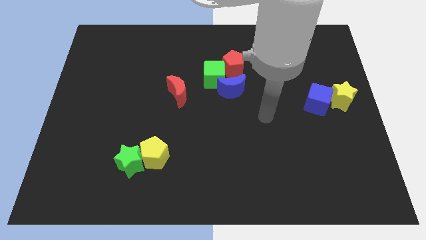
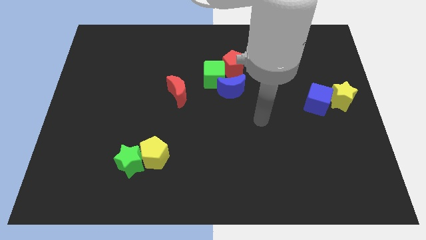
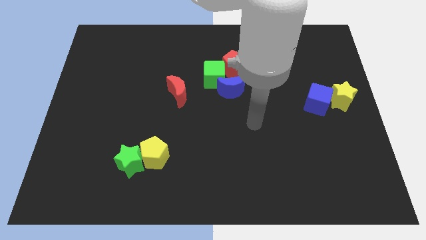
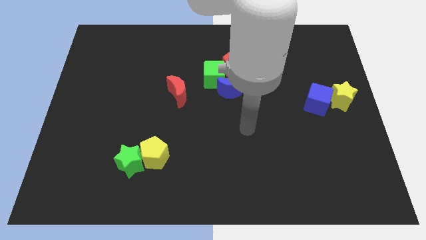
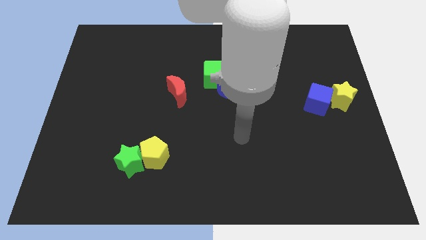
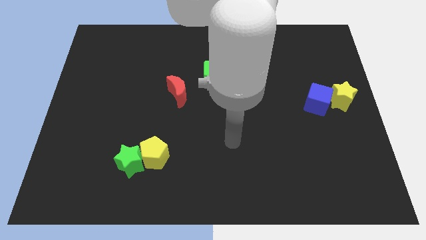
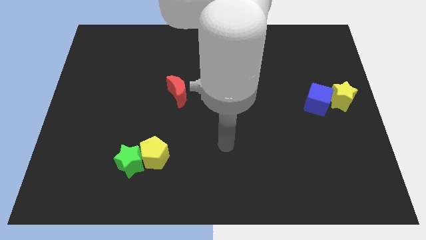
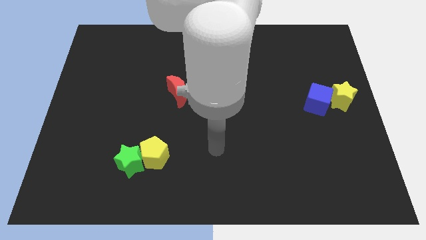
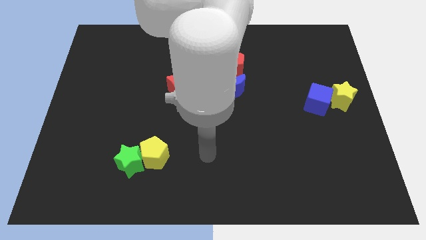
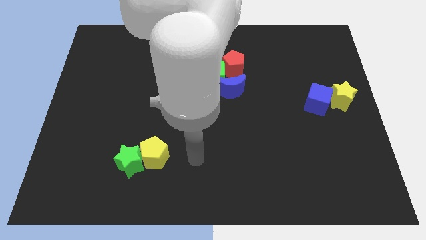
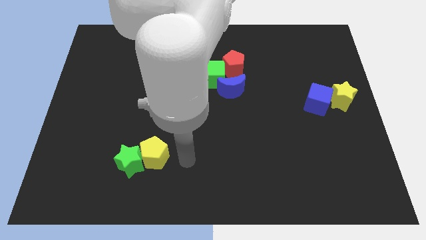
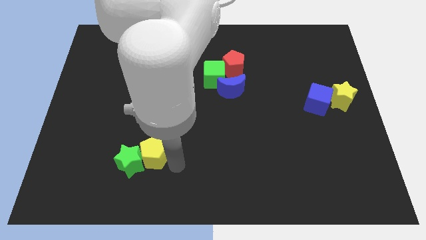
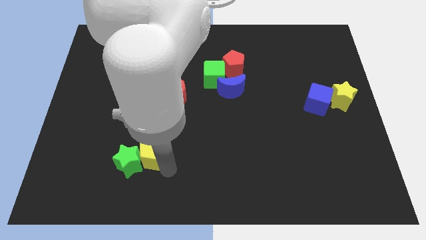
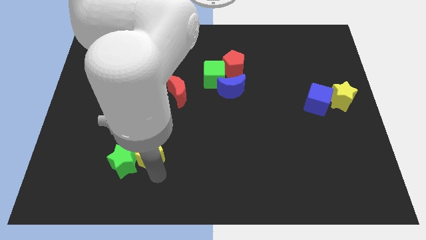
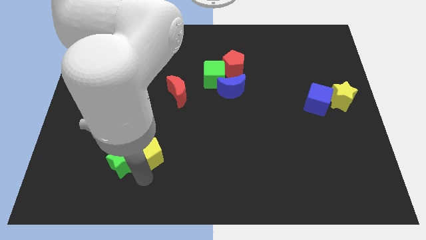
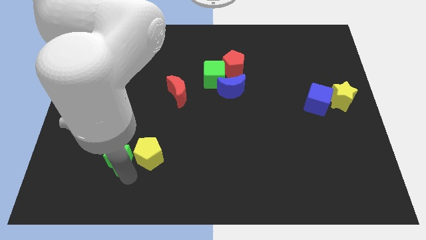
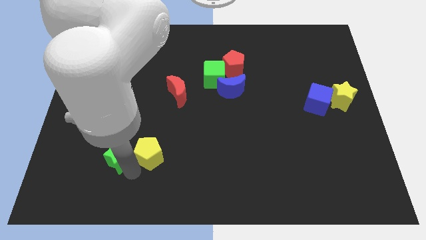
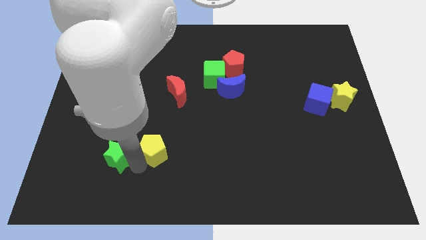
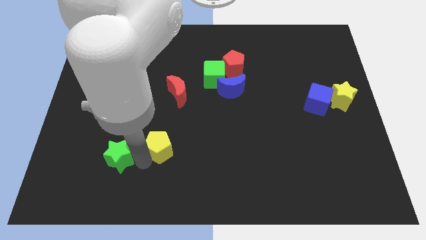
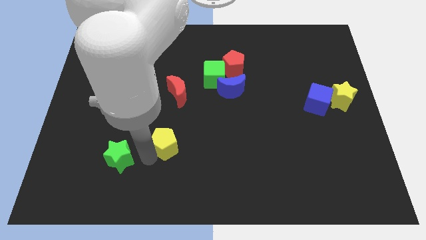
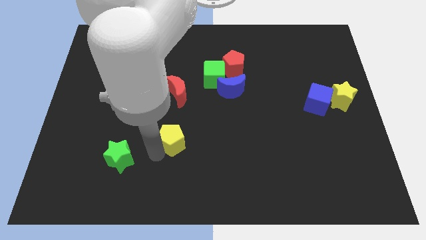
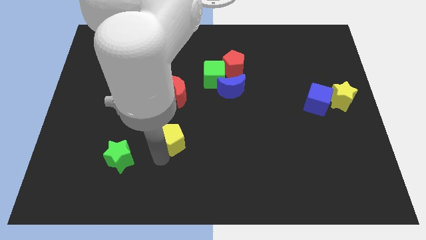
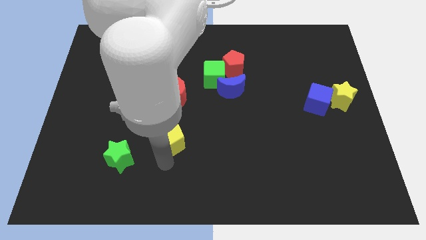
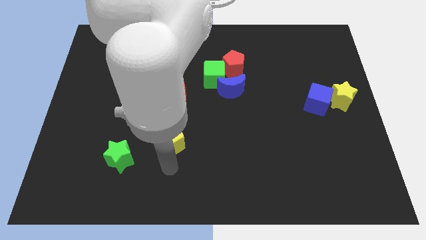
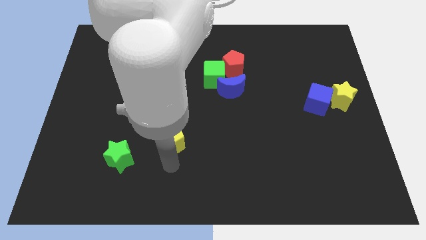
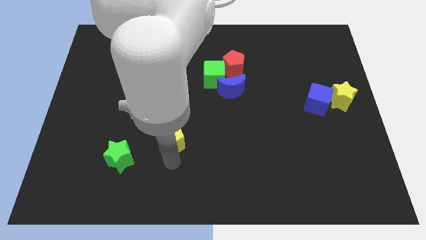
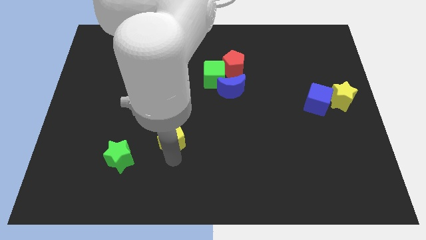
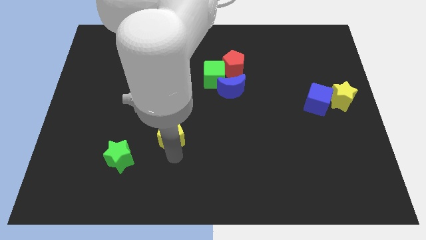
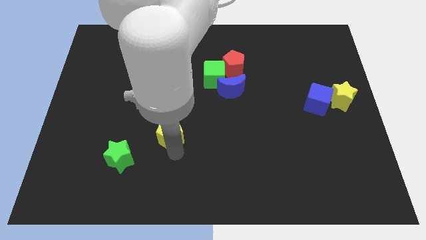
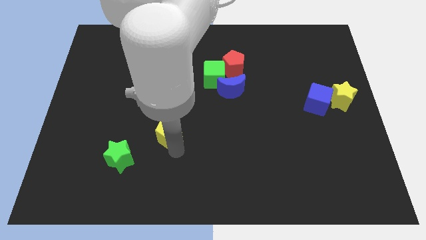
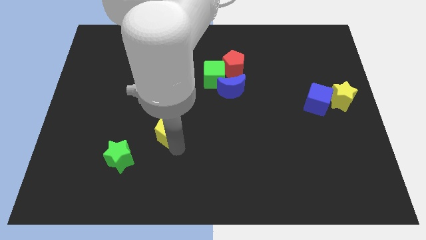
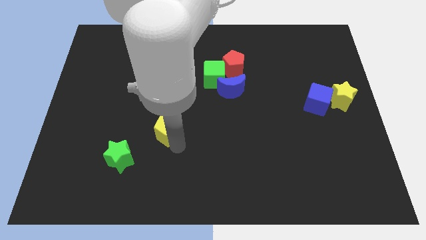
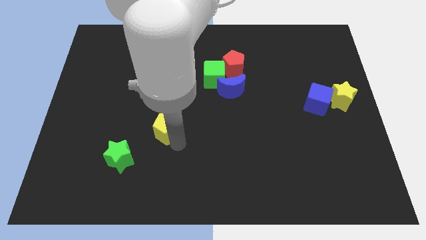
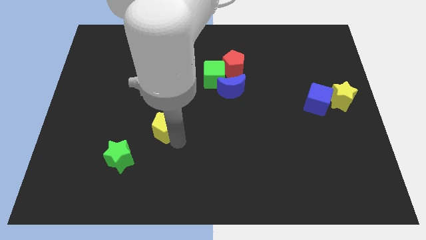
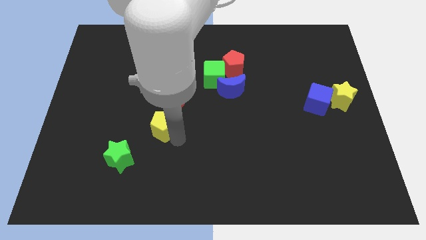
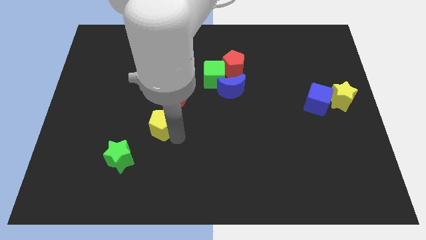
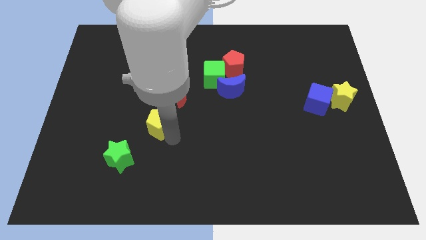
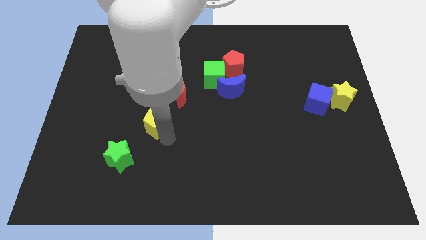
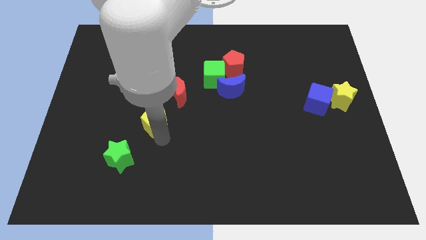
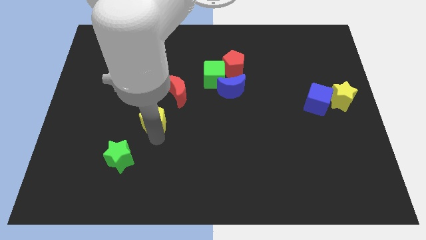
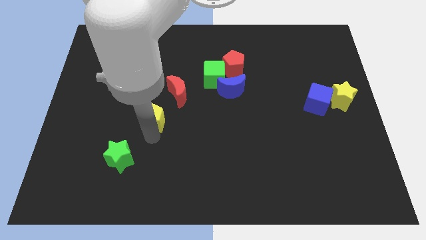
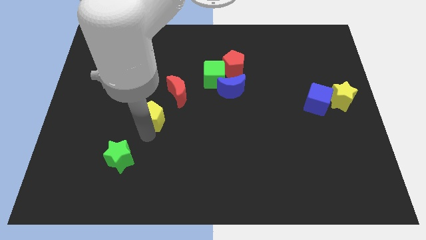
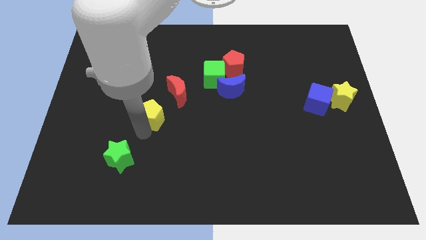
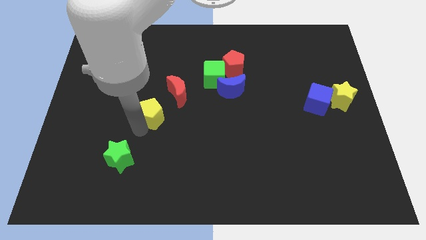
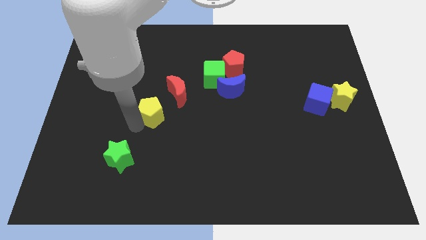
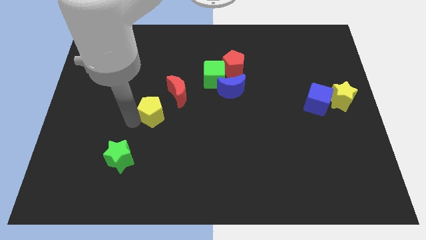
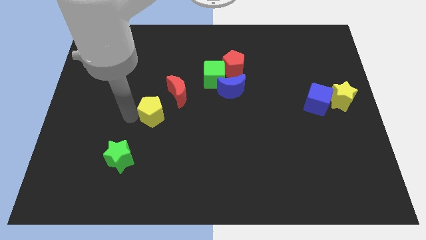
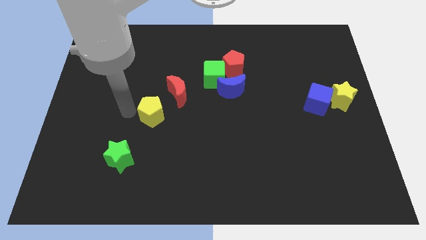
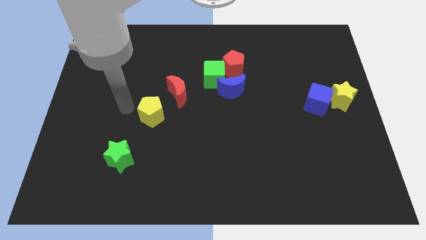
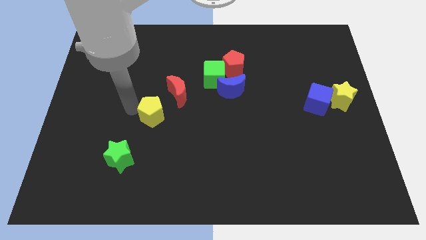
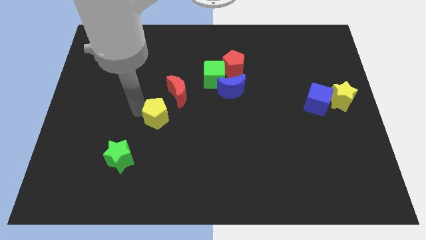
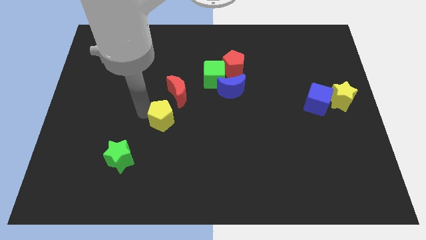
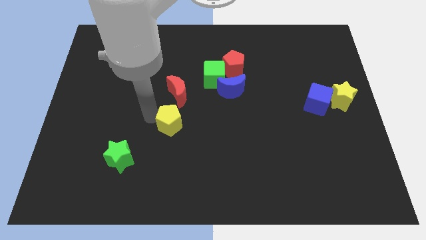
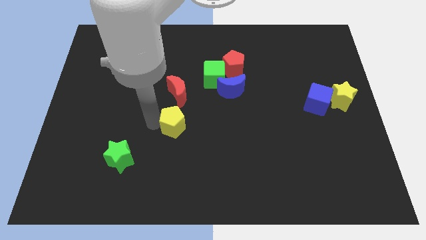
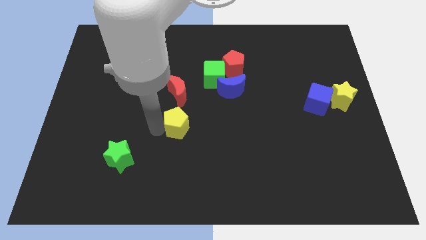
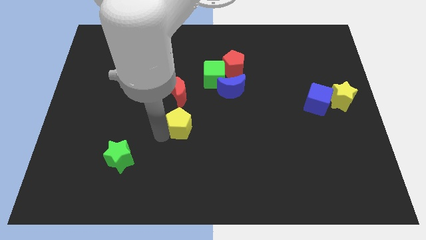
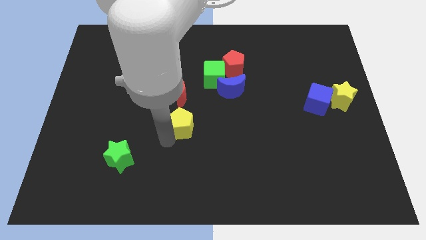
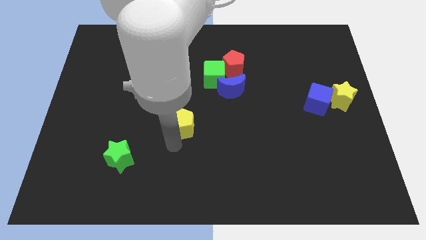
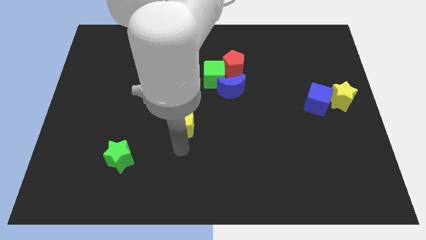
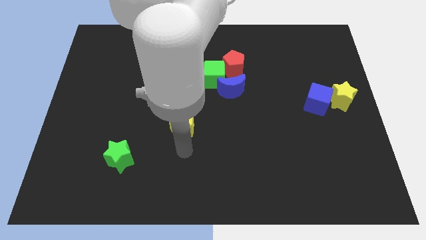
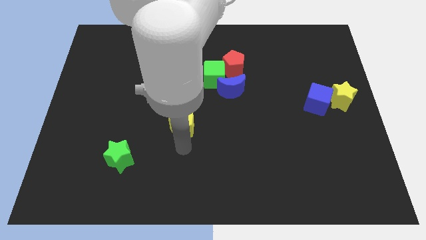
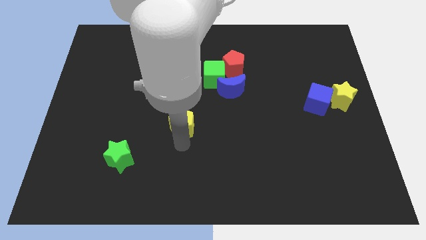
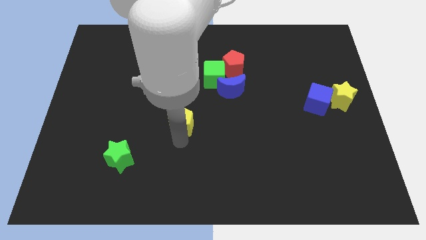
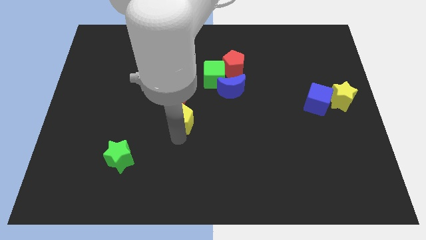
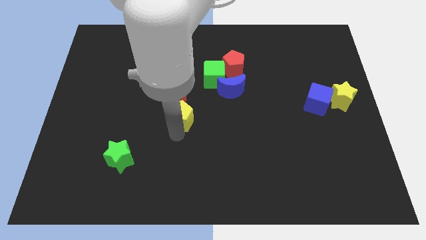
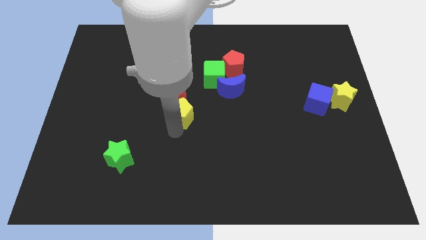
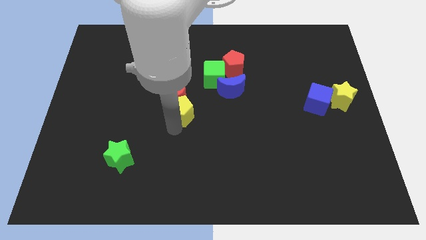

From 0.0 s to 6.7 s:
move the yellow pentagon to the red moon

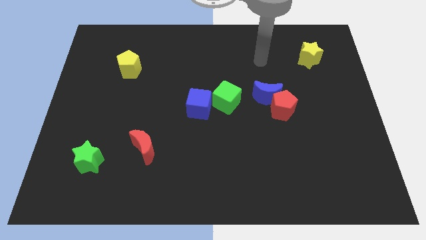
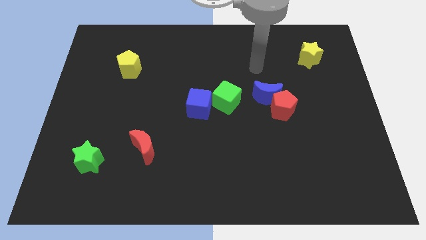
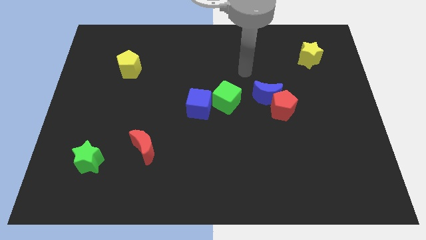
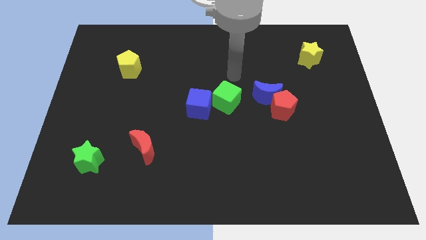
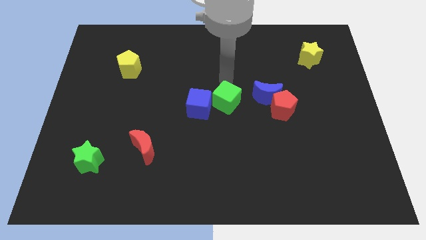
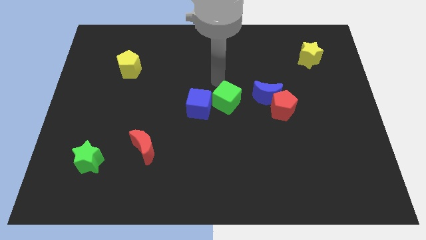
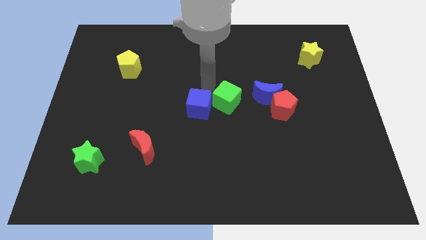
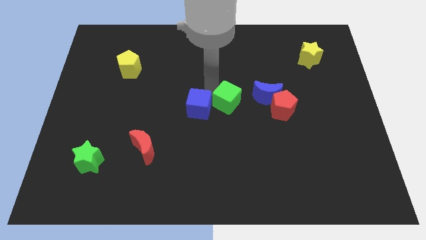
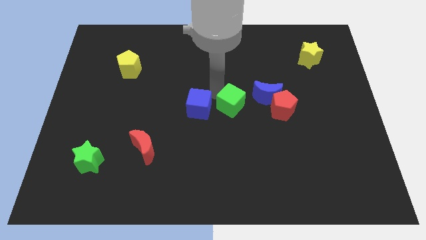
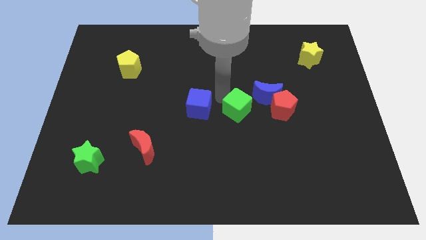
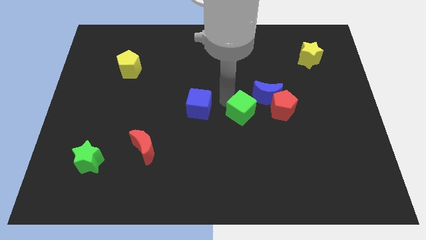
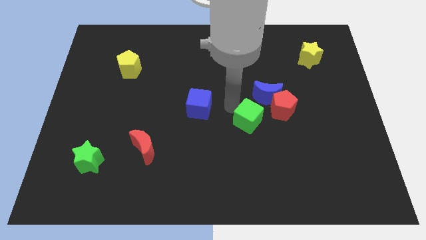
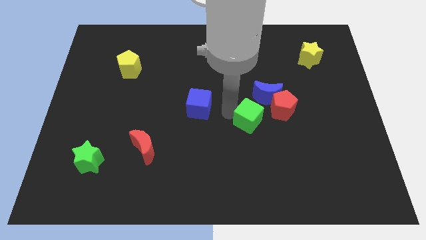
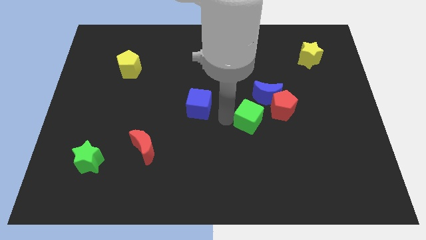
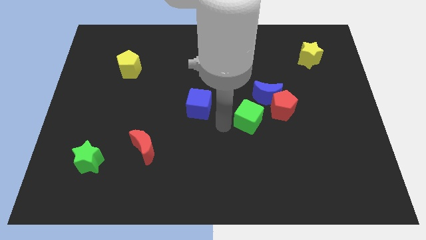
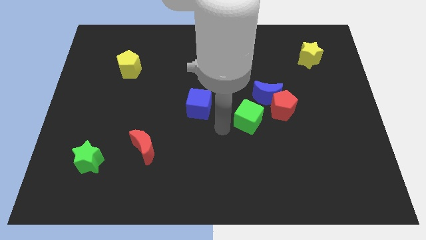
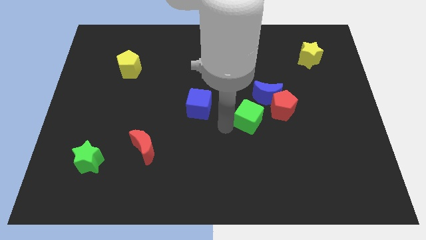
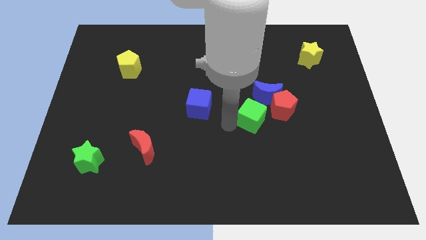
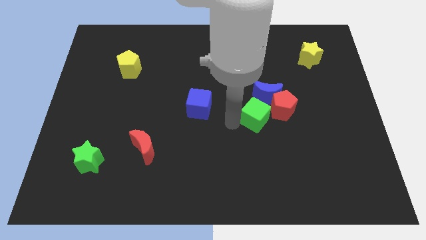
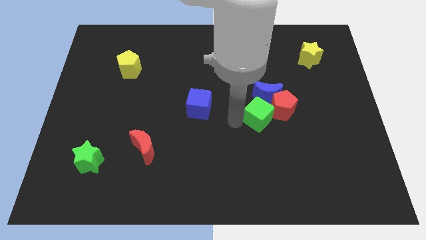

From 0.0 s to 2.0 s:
put the green cube to the red pentagon
